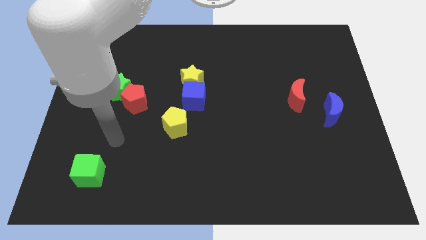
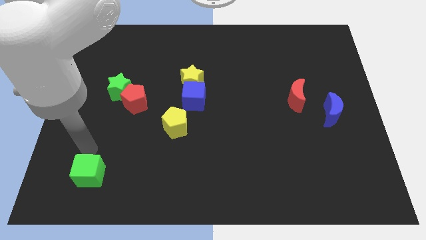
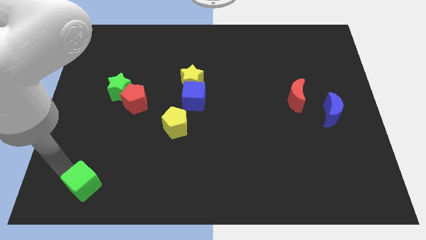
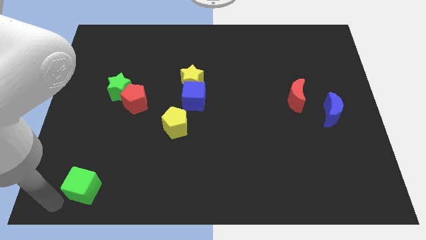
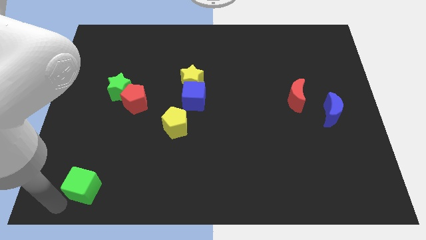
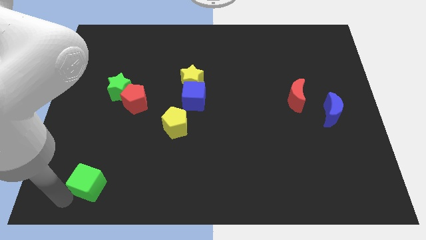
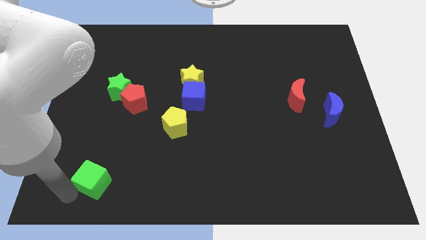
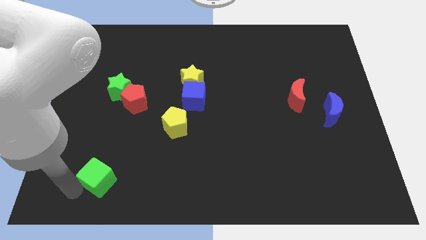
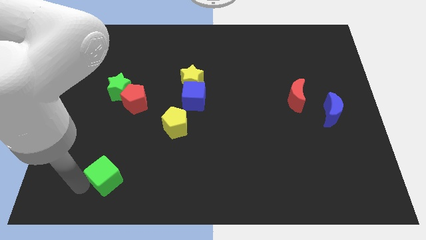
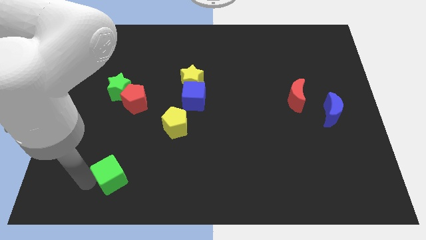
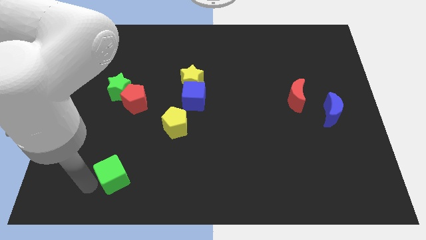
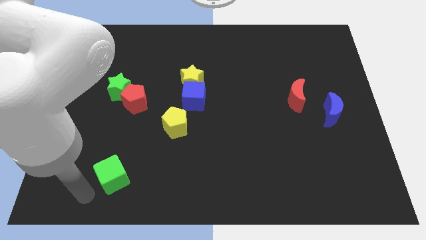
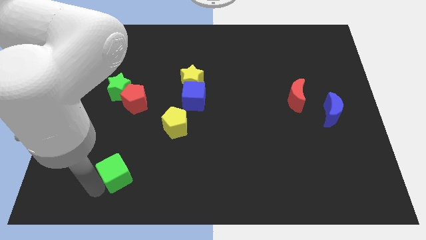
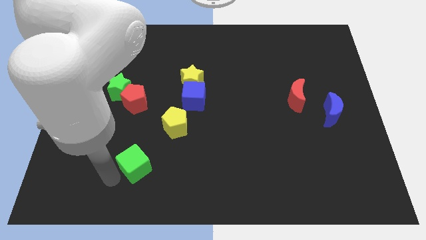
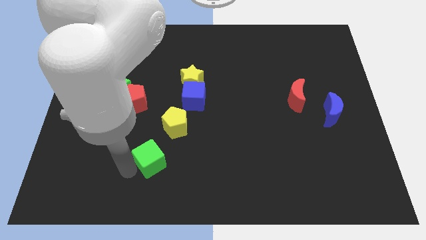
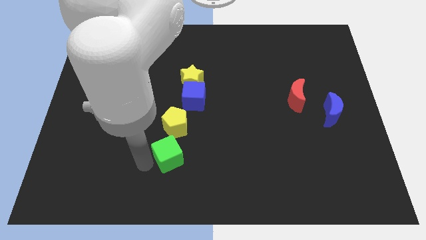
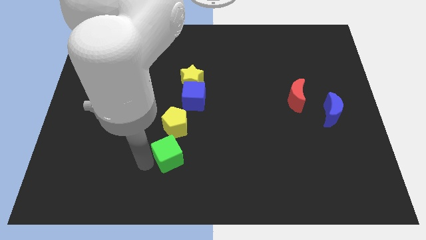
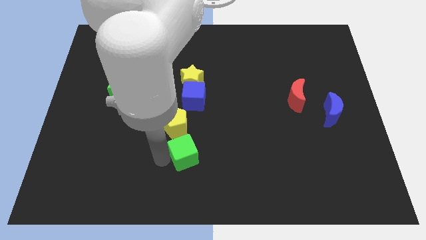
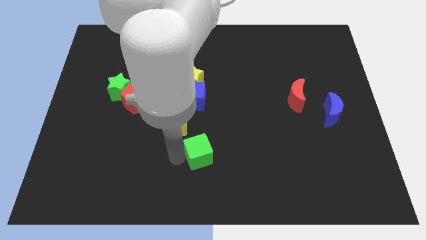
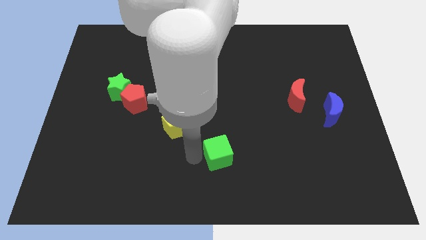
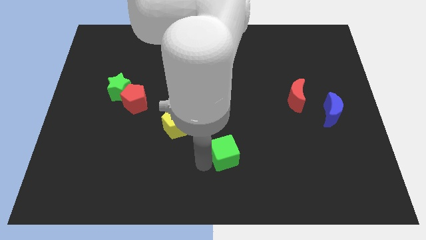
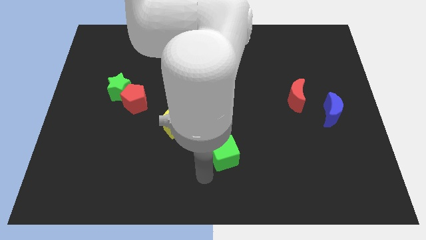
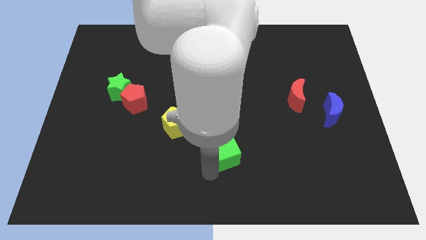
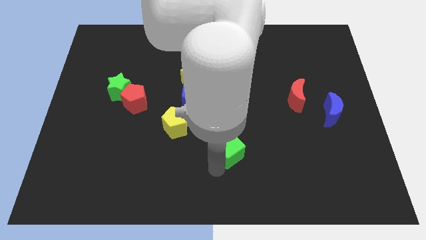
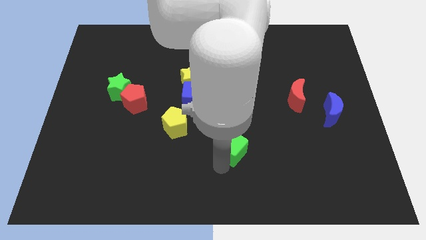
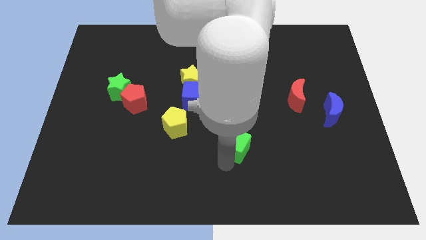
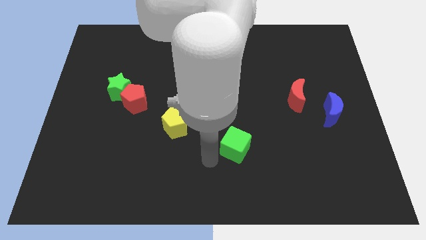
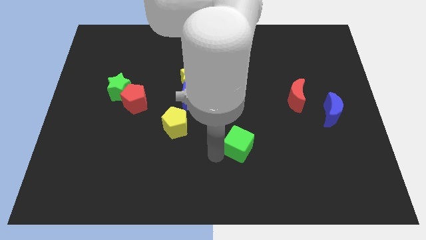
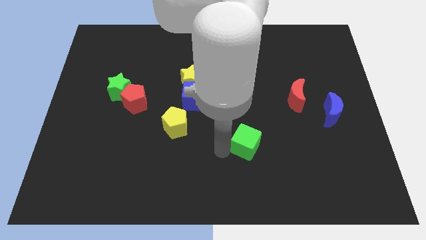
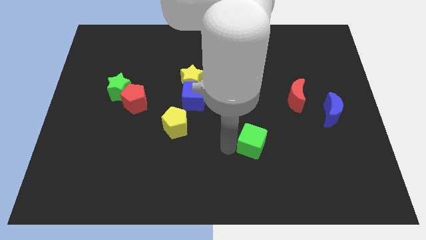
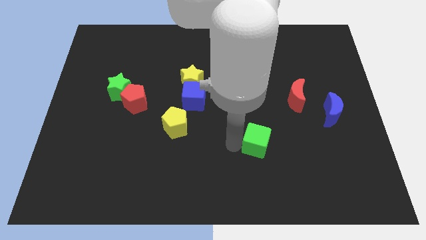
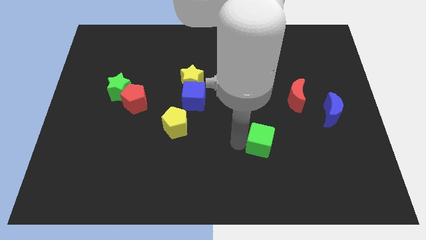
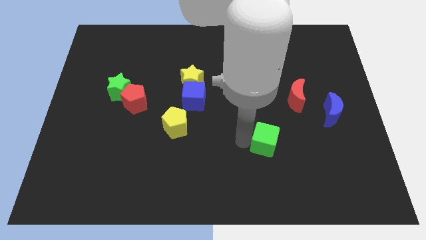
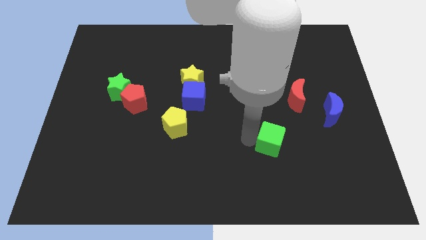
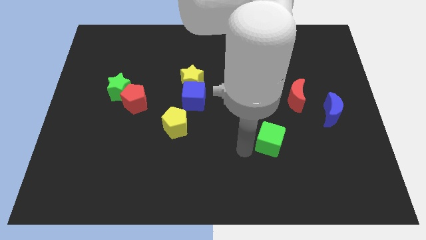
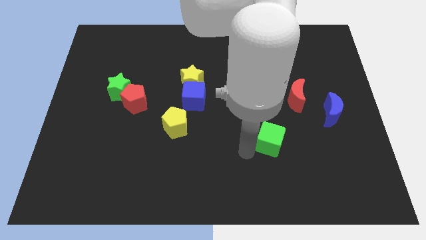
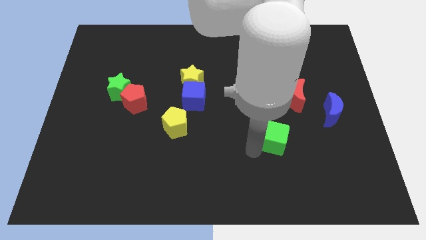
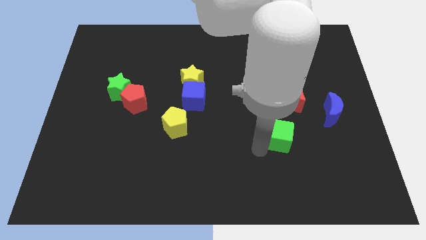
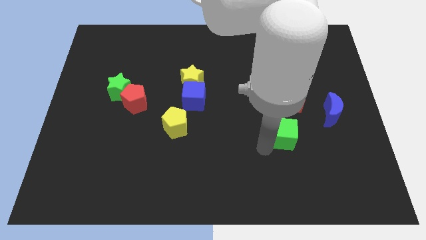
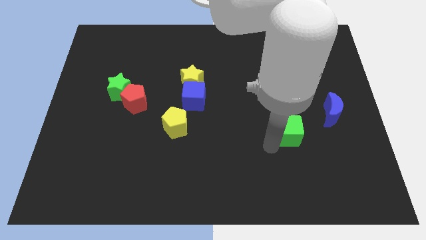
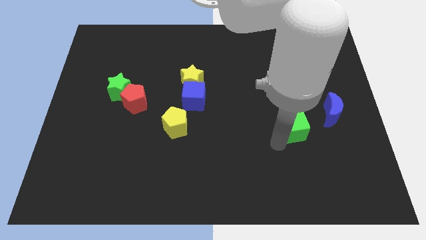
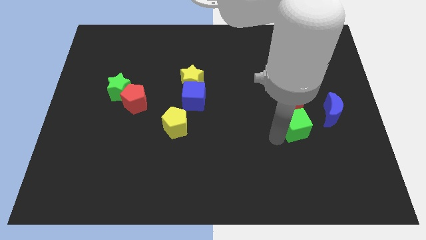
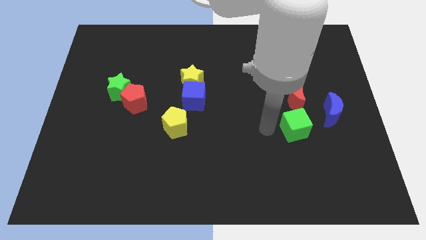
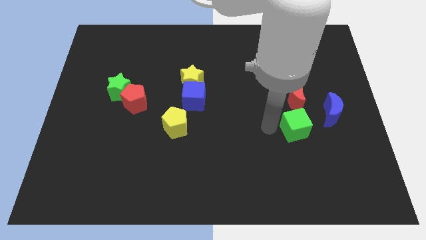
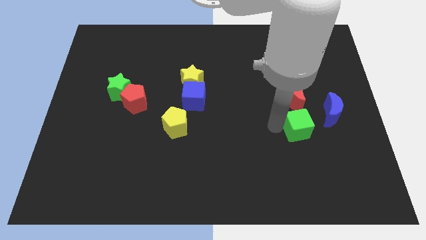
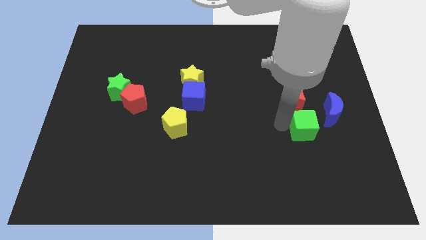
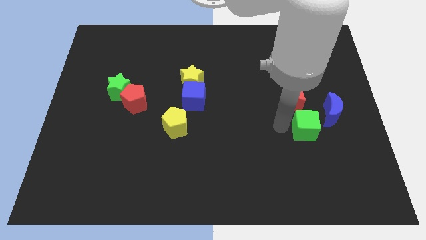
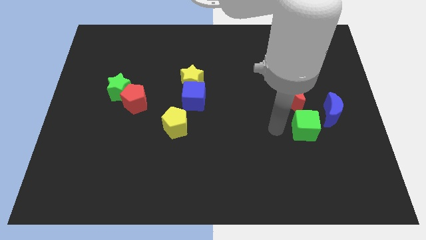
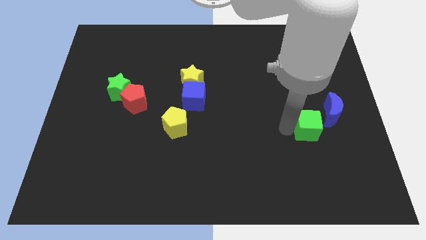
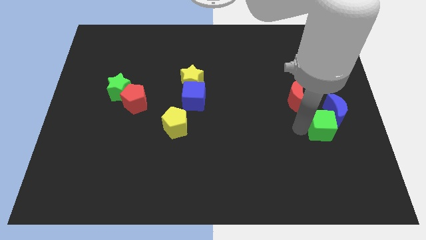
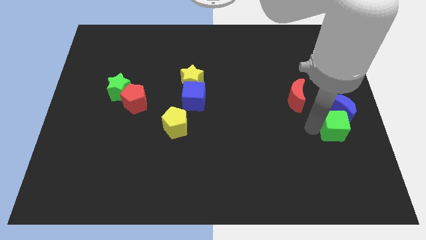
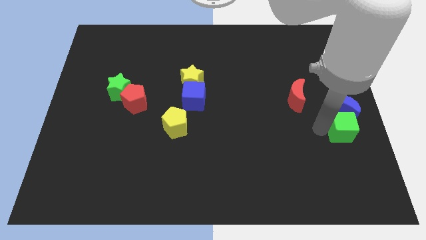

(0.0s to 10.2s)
slide the green cube to the right side of the board

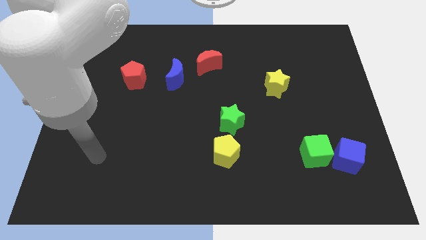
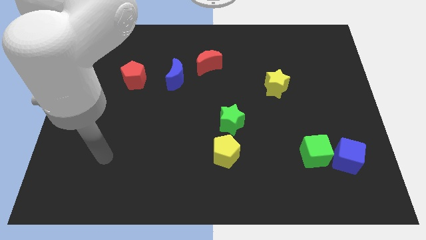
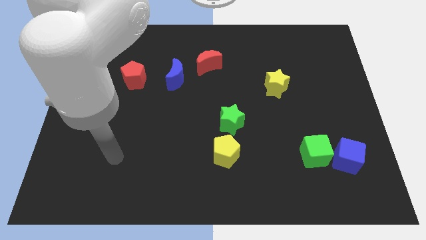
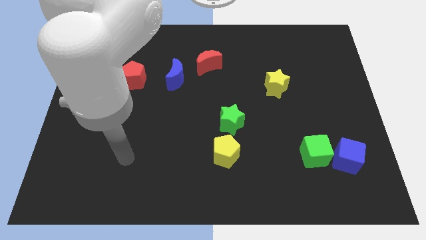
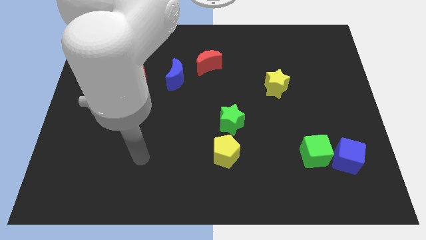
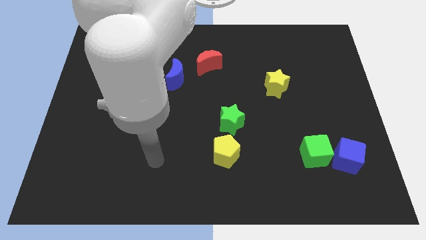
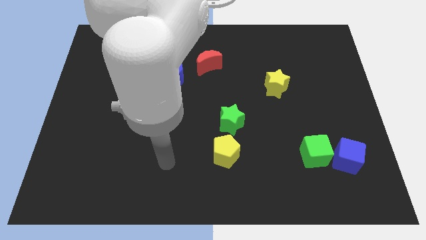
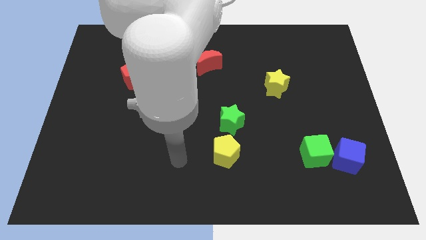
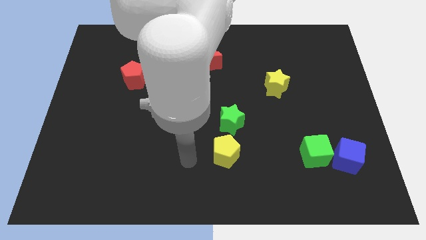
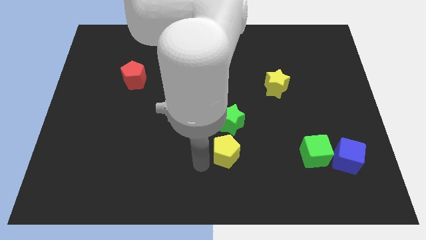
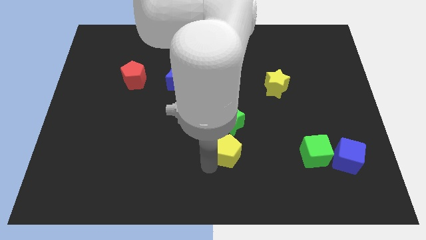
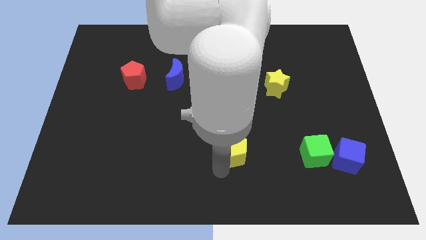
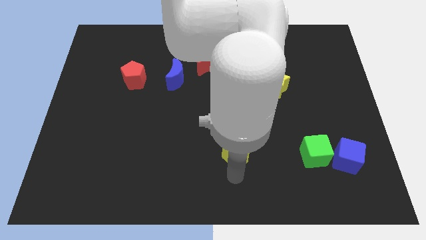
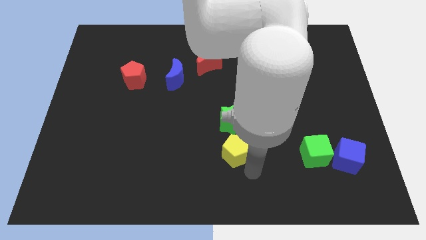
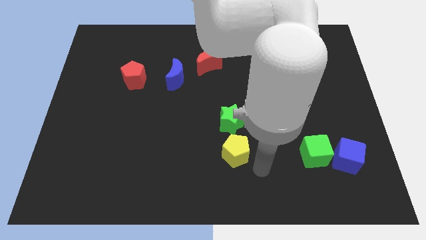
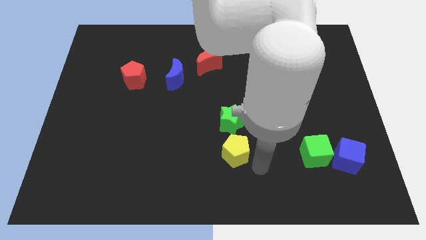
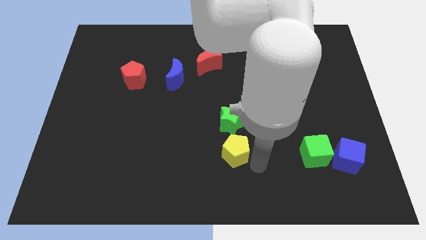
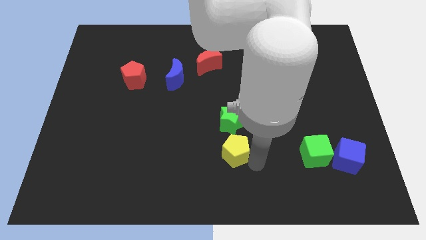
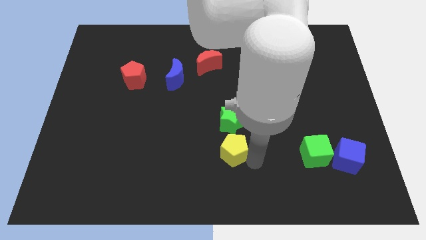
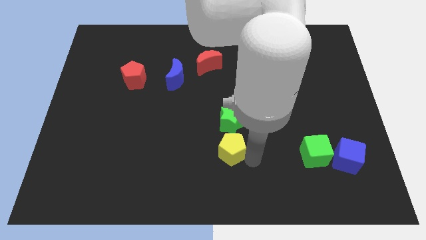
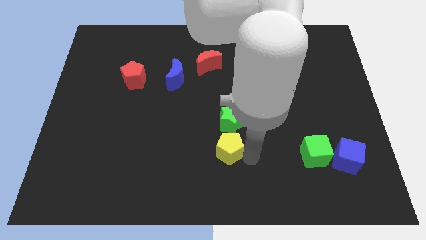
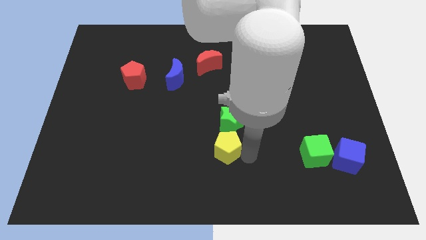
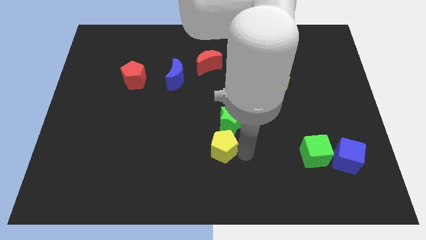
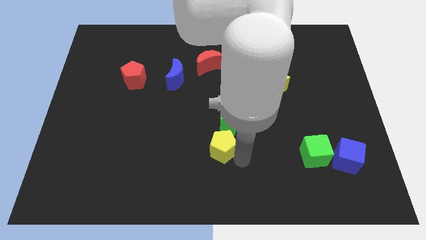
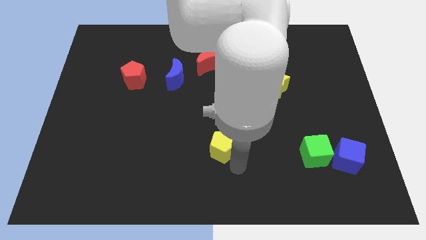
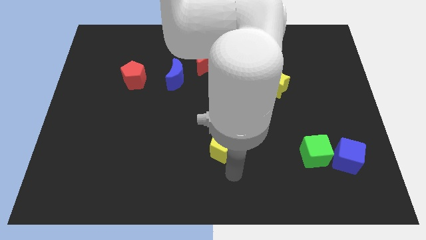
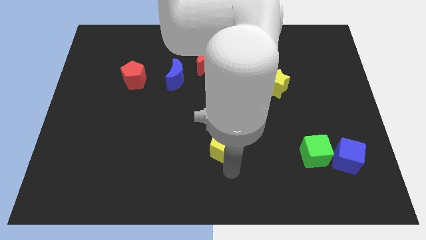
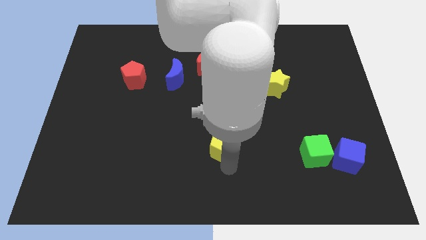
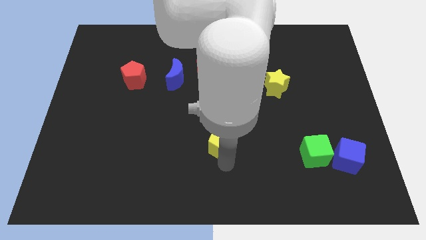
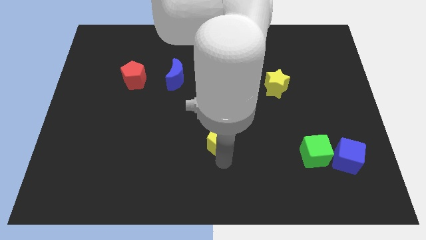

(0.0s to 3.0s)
push the yellow pentagon to the middle of the board
